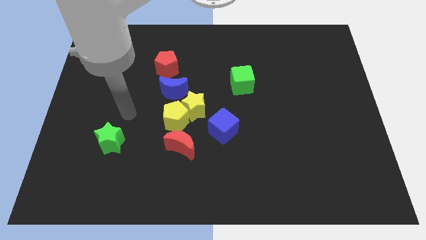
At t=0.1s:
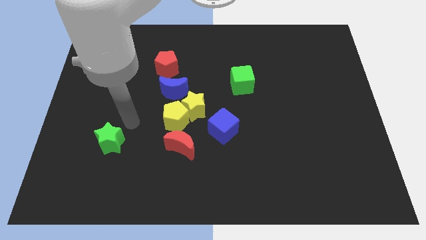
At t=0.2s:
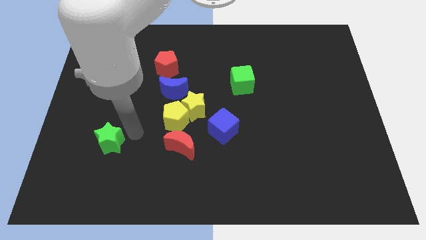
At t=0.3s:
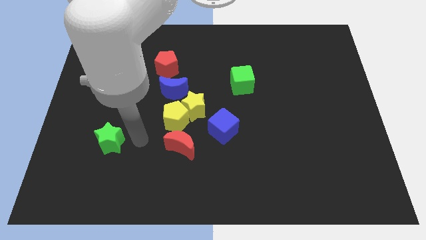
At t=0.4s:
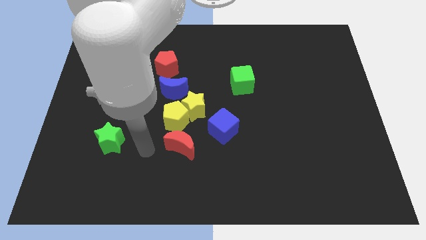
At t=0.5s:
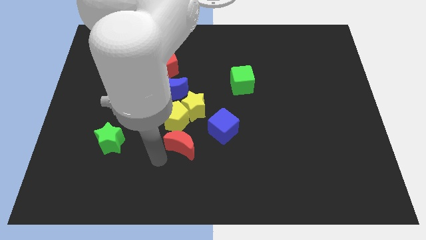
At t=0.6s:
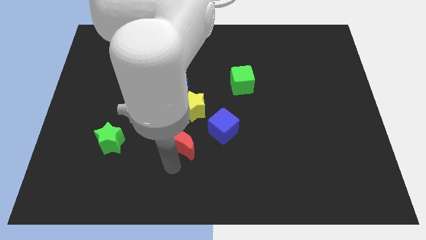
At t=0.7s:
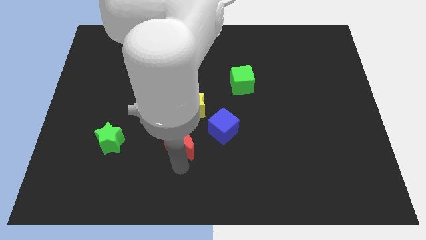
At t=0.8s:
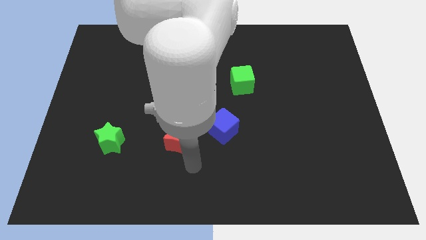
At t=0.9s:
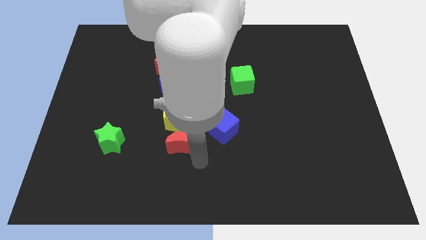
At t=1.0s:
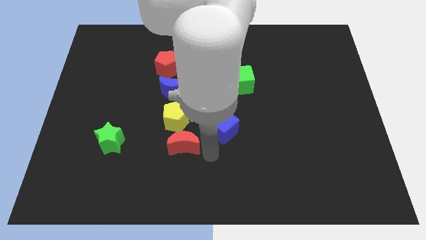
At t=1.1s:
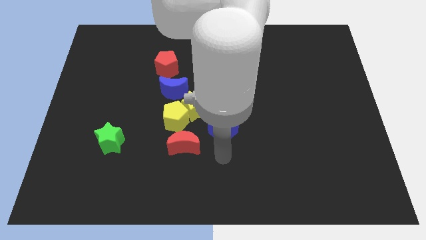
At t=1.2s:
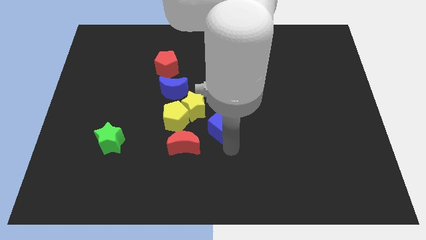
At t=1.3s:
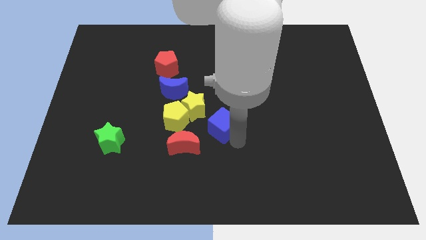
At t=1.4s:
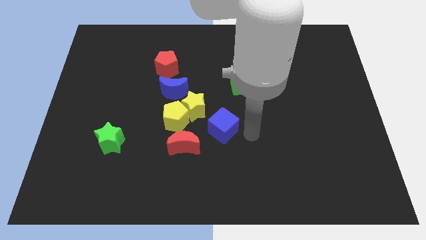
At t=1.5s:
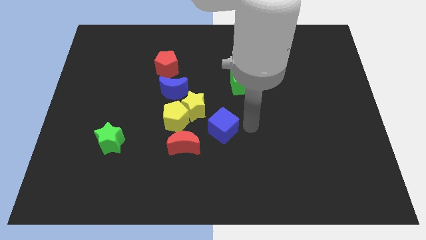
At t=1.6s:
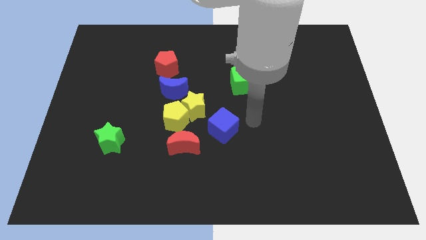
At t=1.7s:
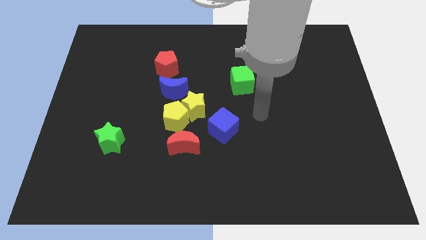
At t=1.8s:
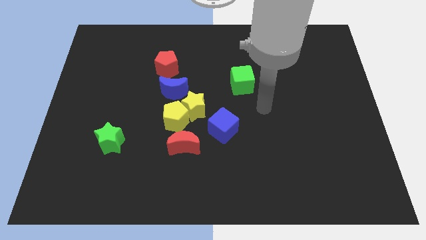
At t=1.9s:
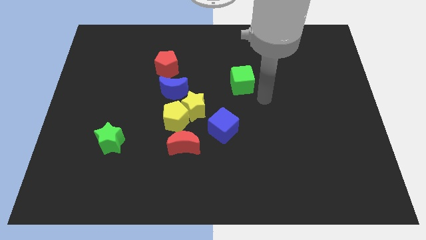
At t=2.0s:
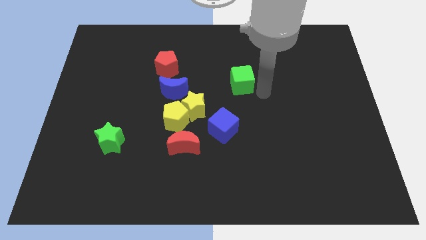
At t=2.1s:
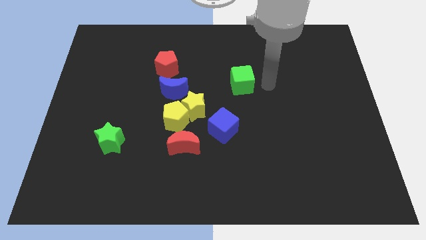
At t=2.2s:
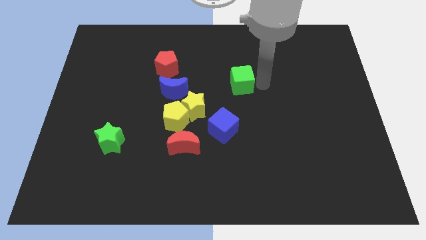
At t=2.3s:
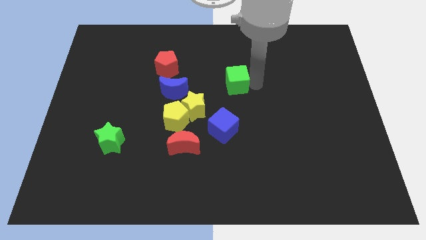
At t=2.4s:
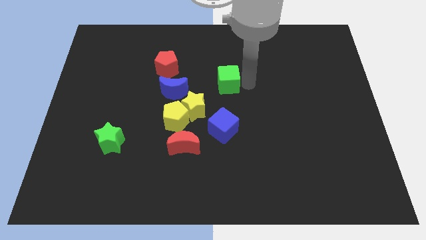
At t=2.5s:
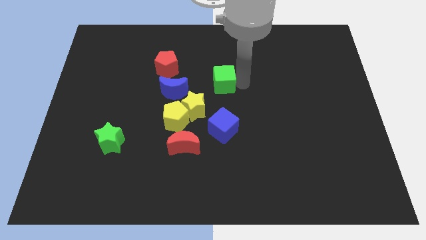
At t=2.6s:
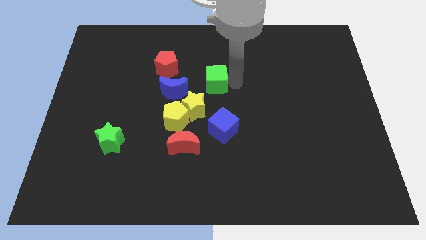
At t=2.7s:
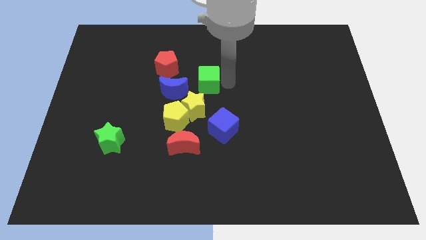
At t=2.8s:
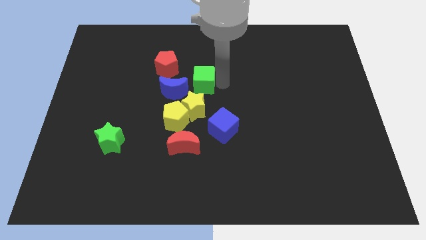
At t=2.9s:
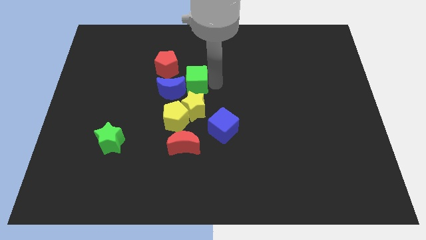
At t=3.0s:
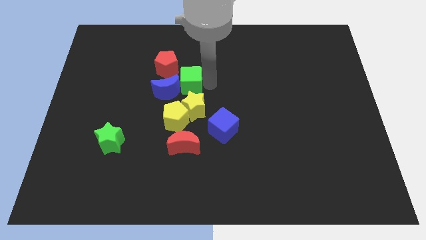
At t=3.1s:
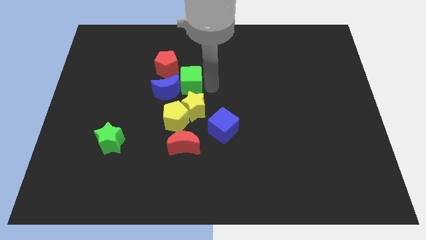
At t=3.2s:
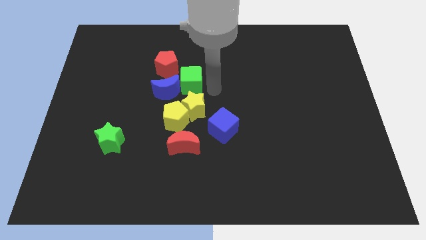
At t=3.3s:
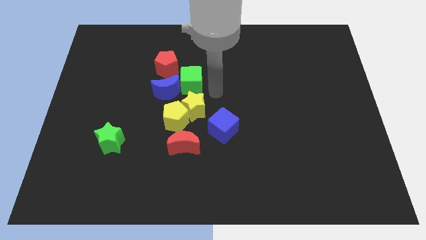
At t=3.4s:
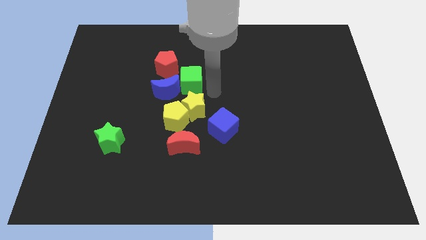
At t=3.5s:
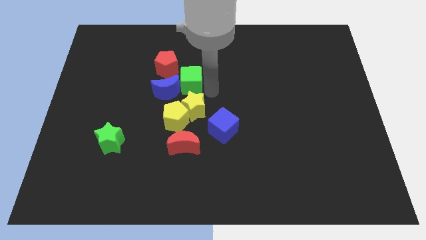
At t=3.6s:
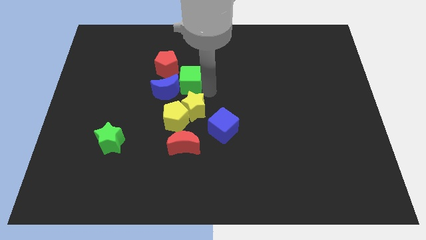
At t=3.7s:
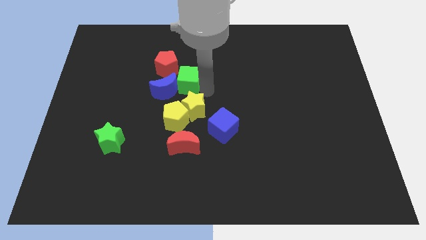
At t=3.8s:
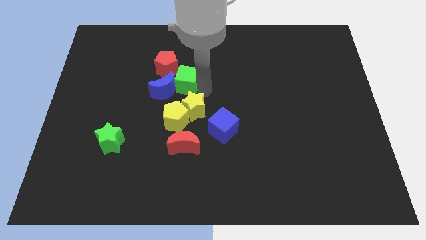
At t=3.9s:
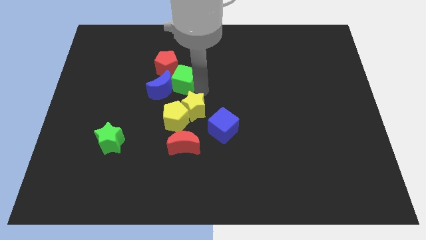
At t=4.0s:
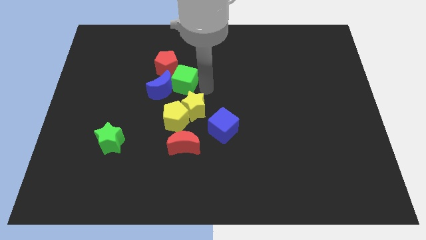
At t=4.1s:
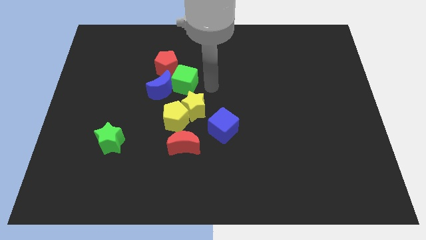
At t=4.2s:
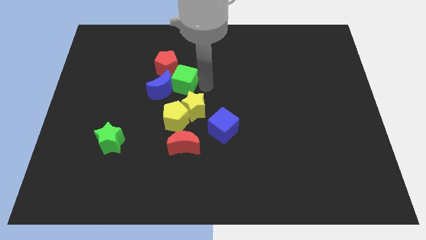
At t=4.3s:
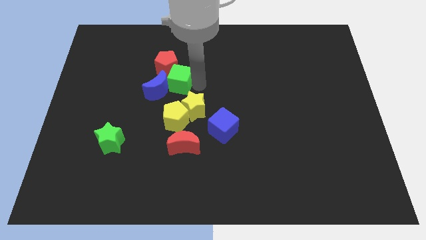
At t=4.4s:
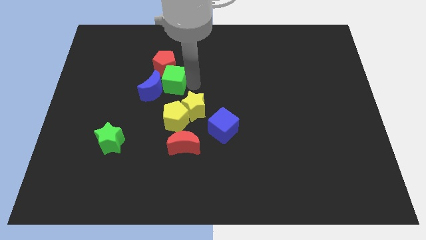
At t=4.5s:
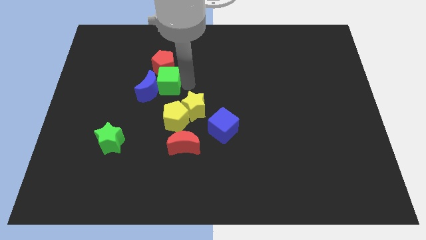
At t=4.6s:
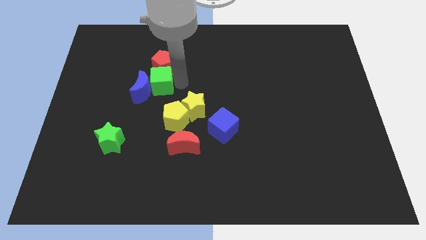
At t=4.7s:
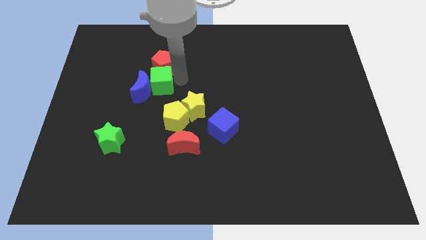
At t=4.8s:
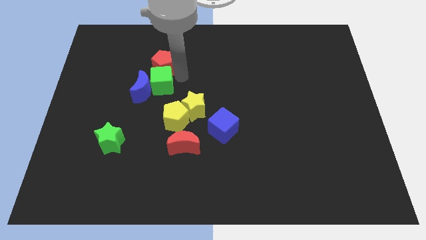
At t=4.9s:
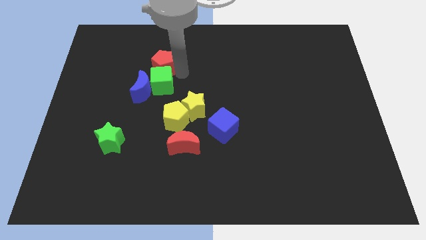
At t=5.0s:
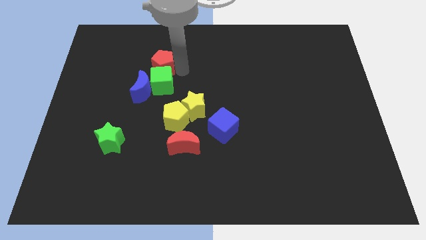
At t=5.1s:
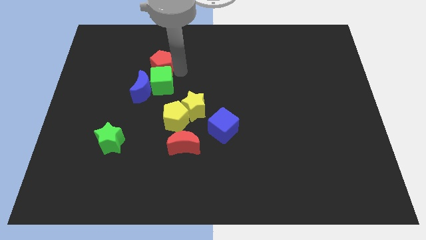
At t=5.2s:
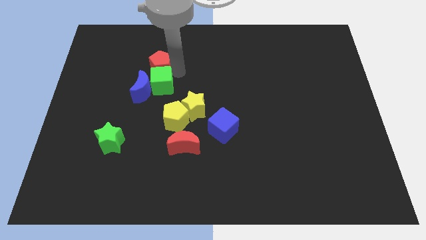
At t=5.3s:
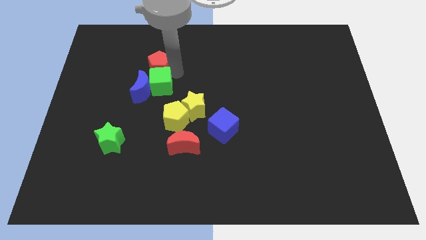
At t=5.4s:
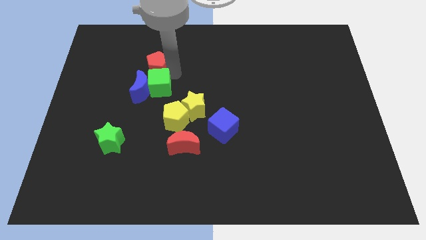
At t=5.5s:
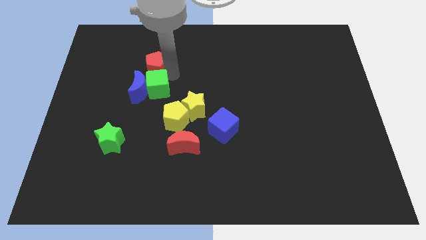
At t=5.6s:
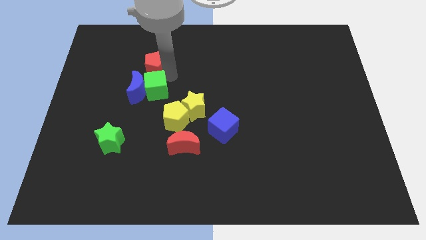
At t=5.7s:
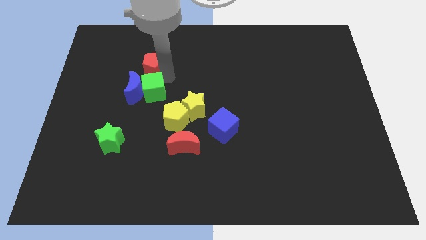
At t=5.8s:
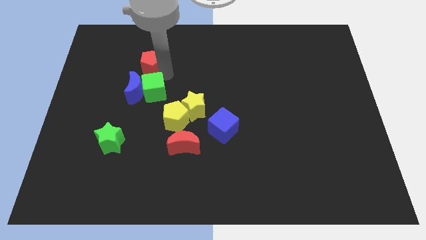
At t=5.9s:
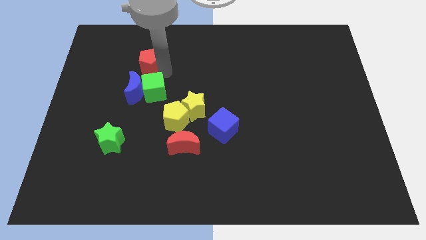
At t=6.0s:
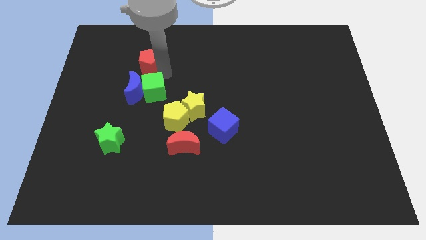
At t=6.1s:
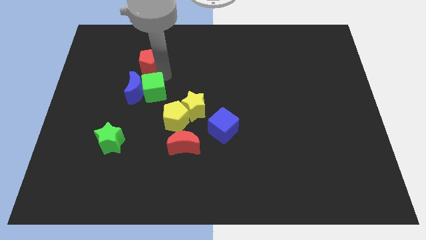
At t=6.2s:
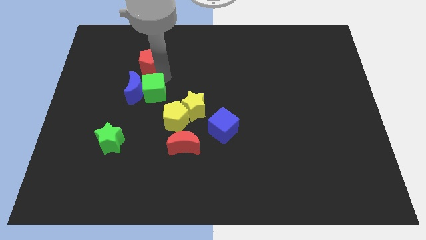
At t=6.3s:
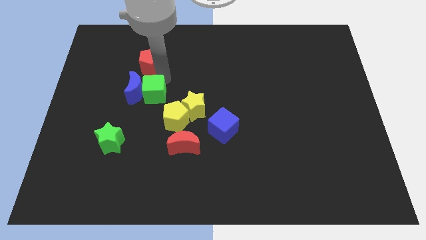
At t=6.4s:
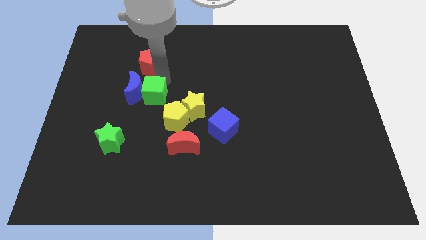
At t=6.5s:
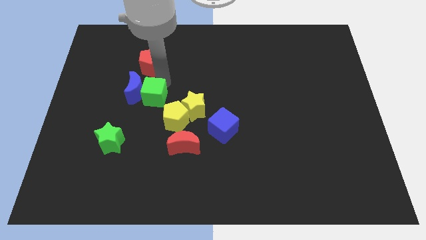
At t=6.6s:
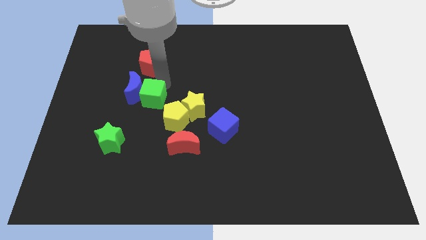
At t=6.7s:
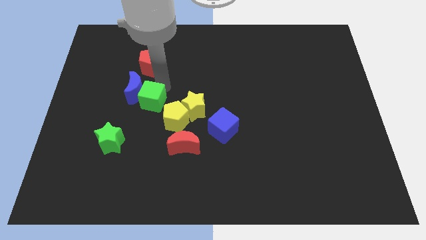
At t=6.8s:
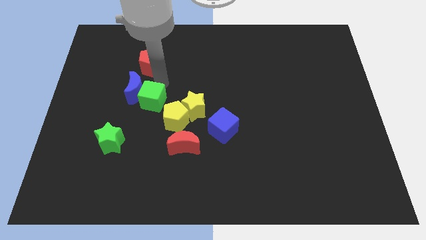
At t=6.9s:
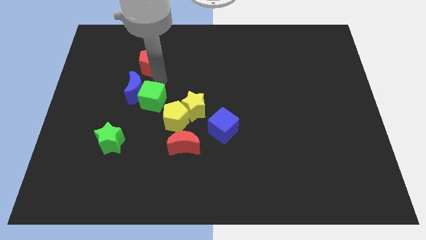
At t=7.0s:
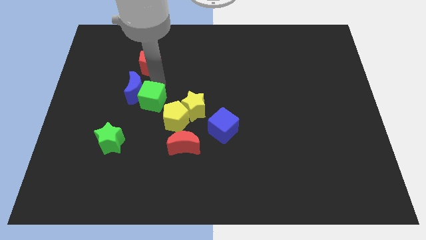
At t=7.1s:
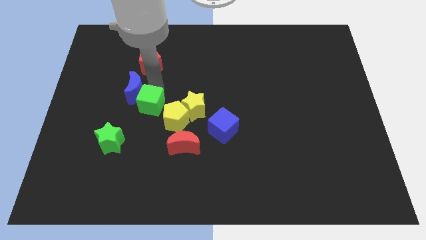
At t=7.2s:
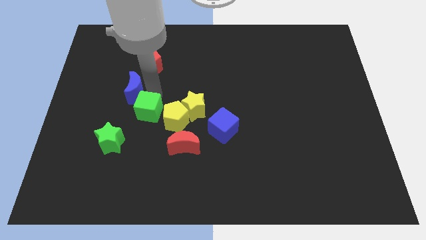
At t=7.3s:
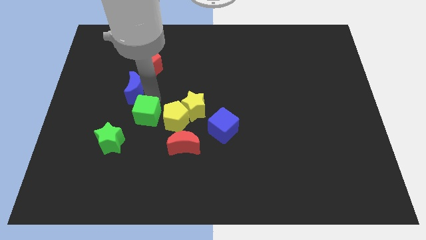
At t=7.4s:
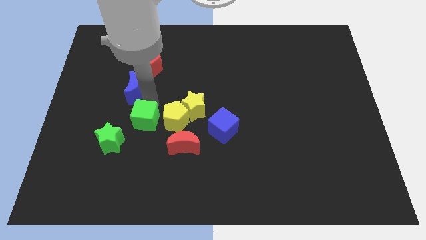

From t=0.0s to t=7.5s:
push the green cube downwards and left

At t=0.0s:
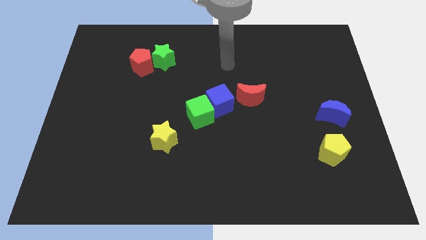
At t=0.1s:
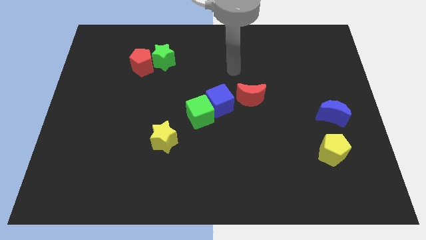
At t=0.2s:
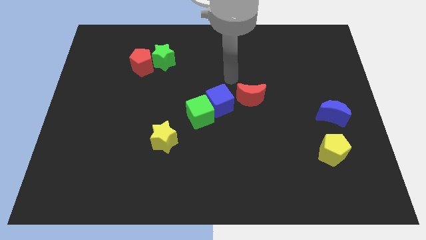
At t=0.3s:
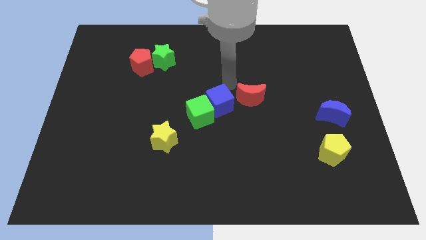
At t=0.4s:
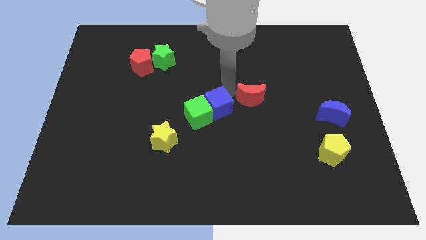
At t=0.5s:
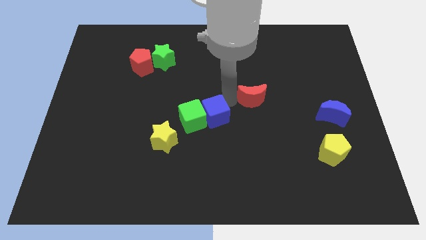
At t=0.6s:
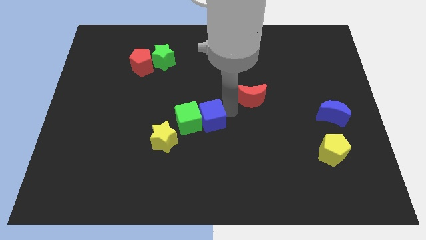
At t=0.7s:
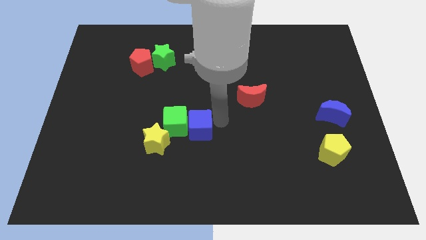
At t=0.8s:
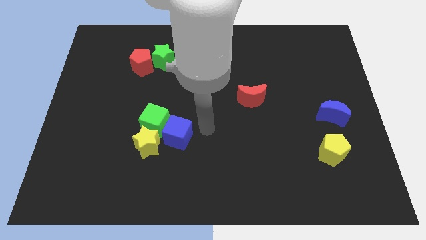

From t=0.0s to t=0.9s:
slightly push the green cube to the left
